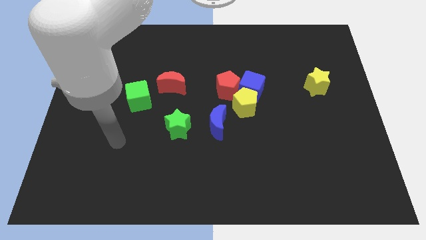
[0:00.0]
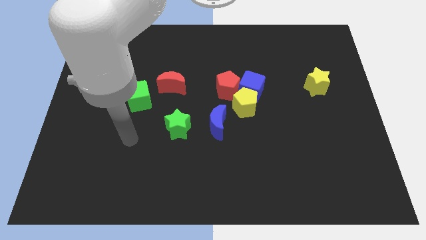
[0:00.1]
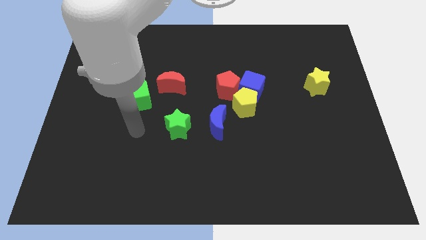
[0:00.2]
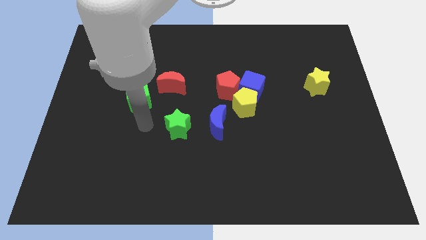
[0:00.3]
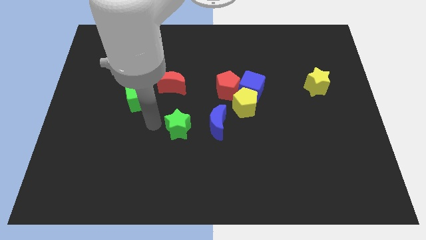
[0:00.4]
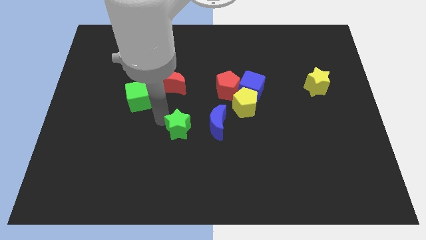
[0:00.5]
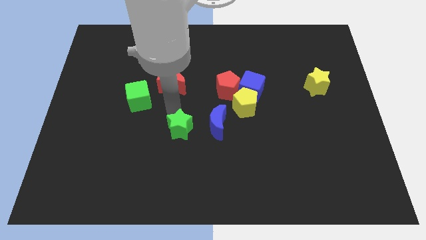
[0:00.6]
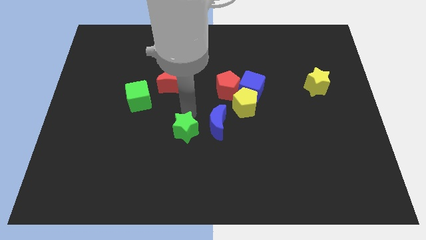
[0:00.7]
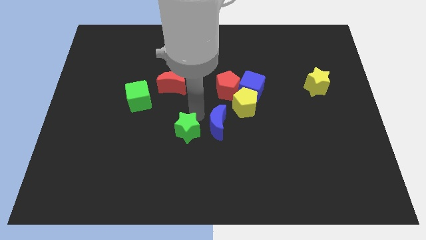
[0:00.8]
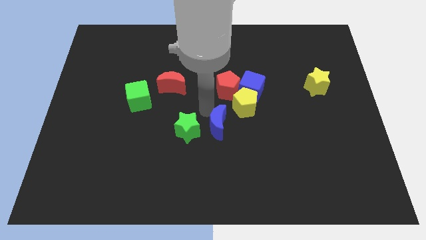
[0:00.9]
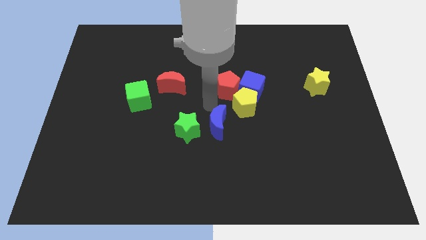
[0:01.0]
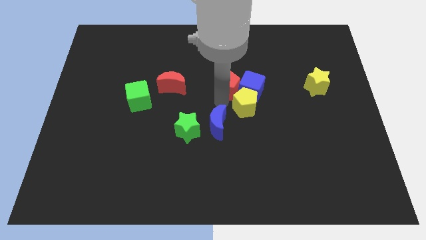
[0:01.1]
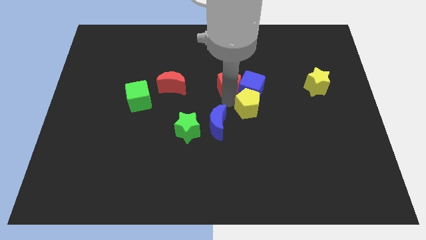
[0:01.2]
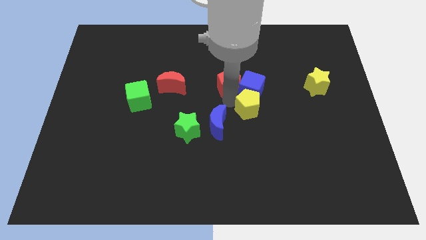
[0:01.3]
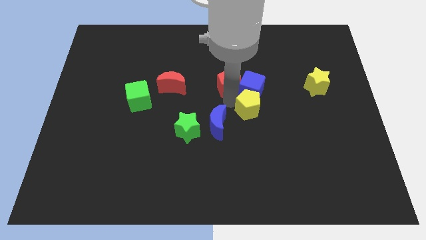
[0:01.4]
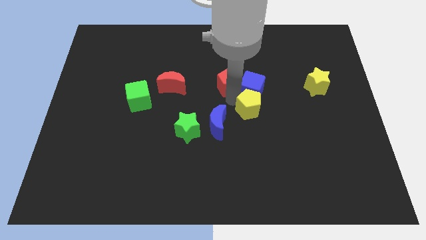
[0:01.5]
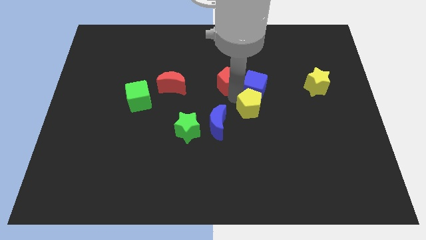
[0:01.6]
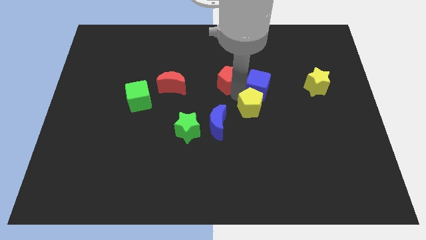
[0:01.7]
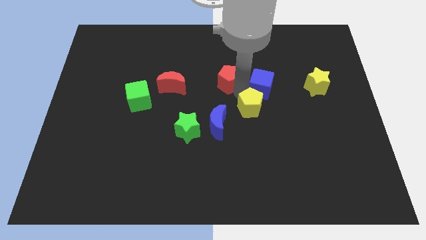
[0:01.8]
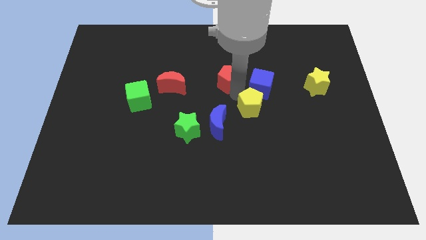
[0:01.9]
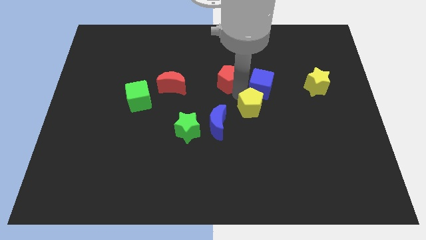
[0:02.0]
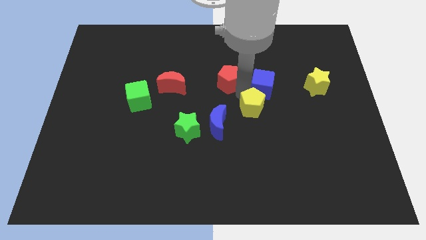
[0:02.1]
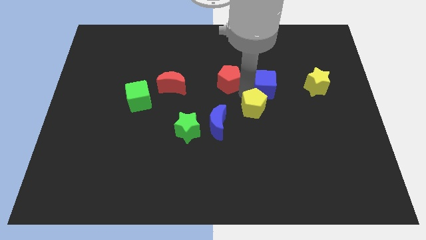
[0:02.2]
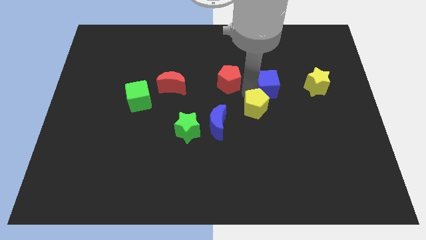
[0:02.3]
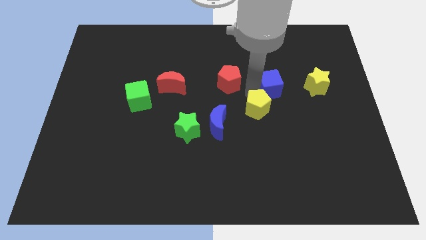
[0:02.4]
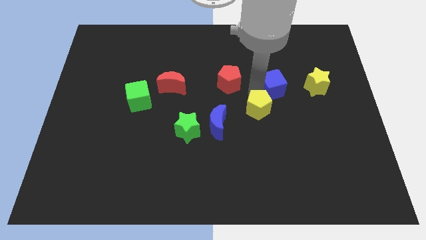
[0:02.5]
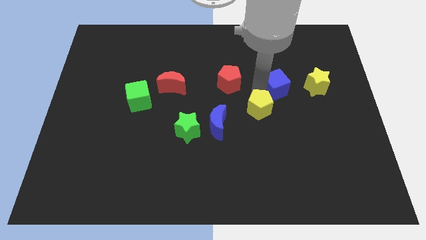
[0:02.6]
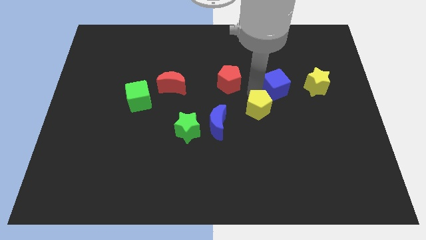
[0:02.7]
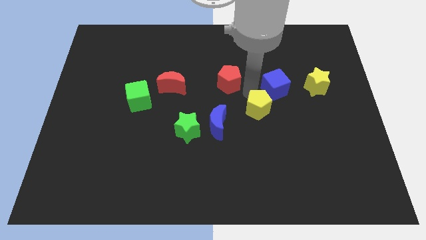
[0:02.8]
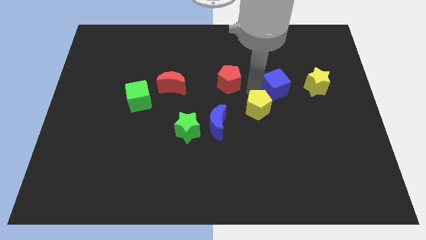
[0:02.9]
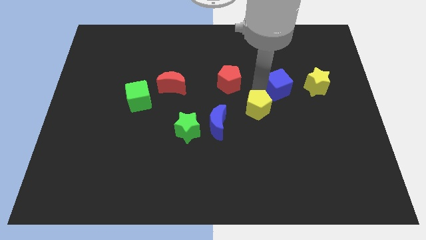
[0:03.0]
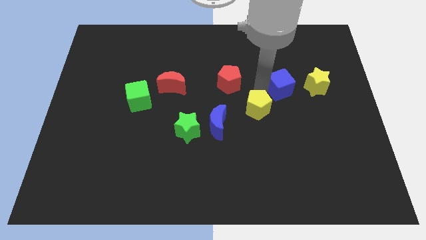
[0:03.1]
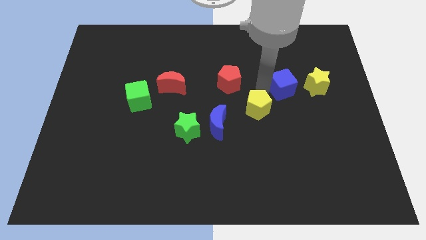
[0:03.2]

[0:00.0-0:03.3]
move the blue cube away from the yellow pentagon and red pentagon

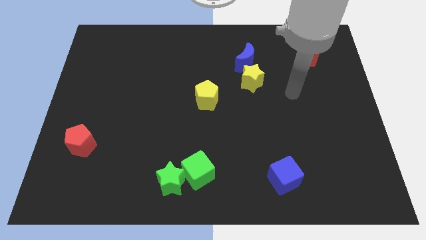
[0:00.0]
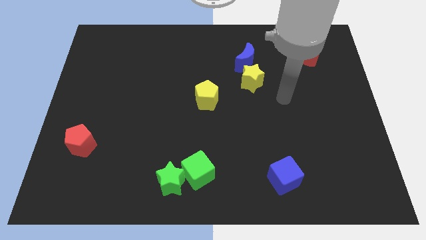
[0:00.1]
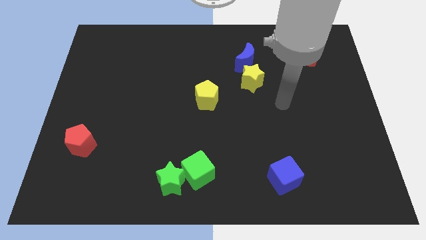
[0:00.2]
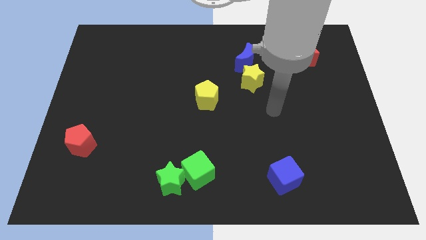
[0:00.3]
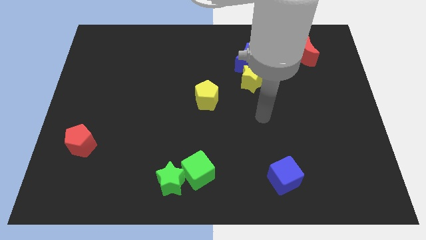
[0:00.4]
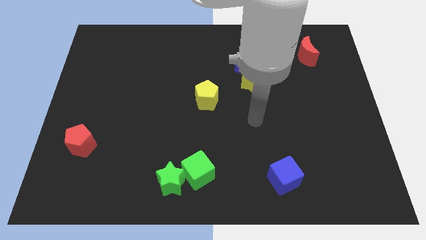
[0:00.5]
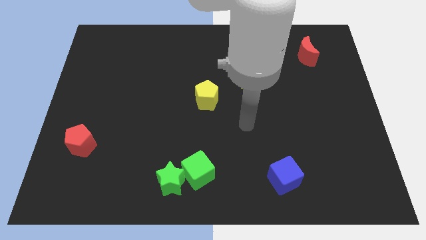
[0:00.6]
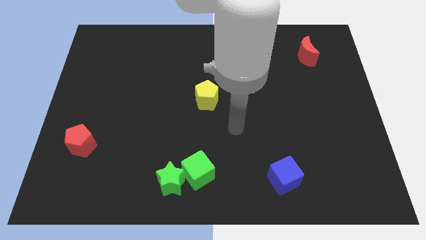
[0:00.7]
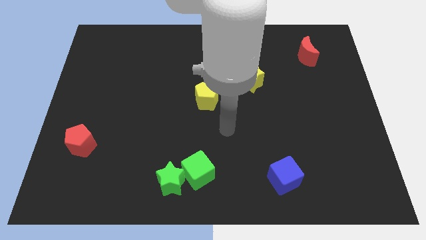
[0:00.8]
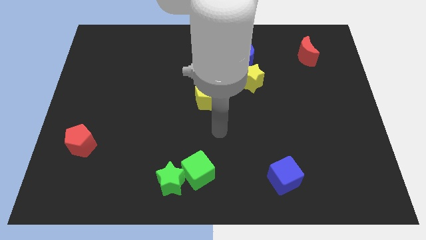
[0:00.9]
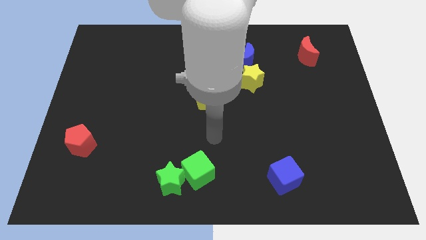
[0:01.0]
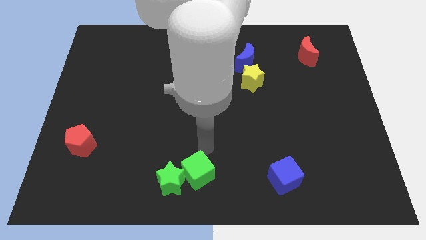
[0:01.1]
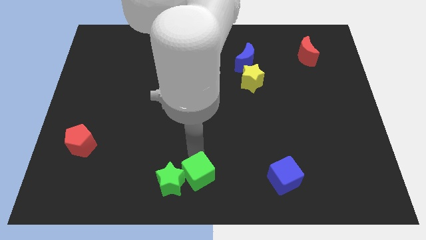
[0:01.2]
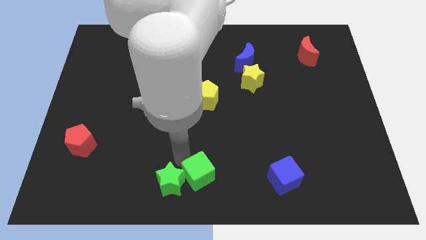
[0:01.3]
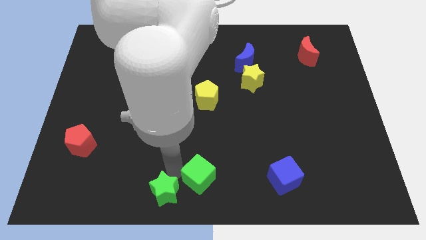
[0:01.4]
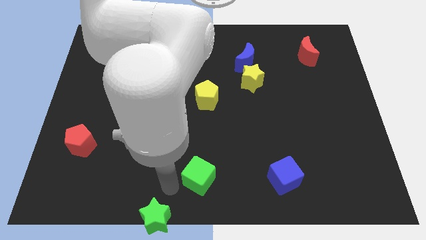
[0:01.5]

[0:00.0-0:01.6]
move the green cube away from the green star

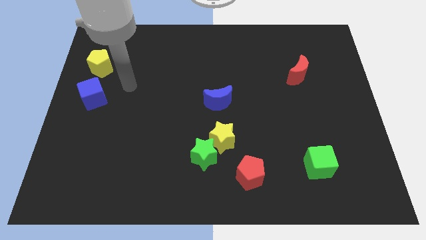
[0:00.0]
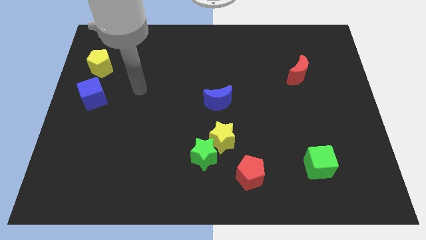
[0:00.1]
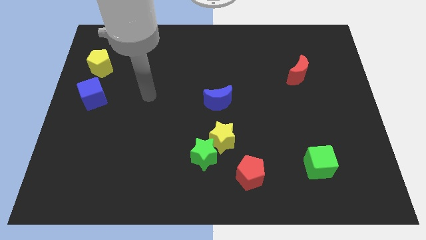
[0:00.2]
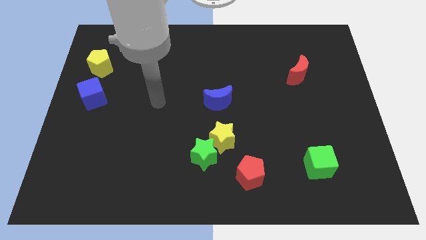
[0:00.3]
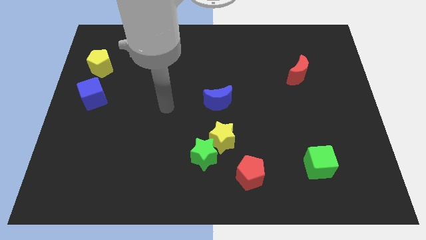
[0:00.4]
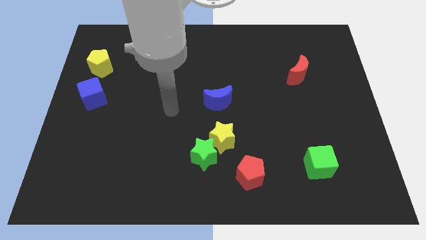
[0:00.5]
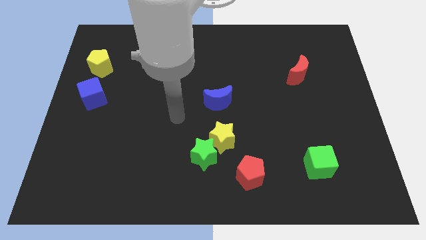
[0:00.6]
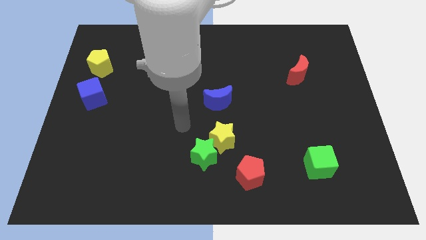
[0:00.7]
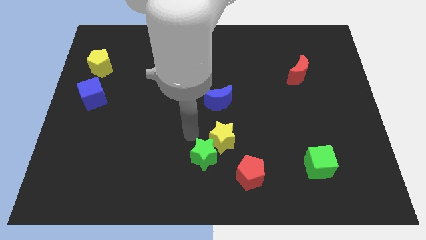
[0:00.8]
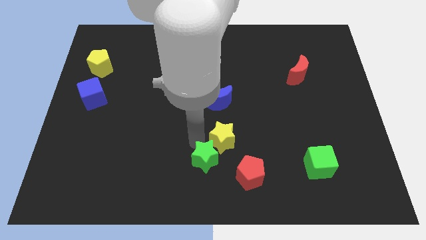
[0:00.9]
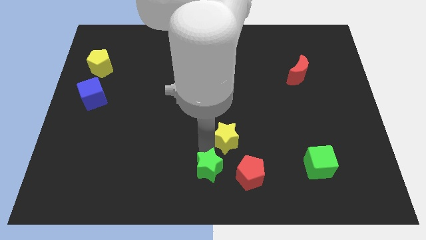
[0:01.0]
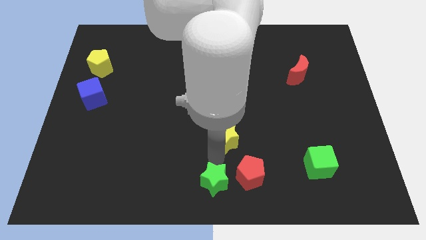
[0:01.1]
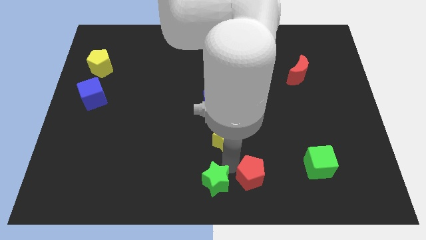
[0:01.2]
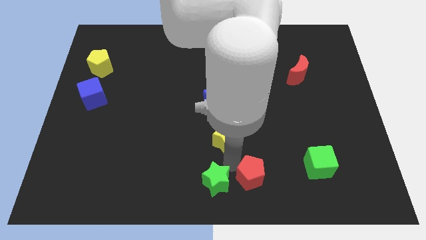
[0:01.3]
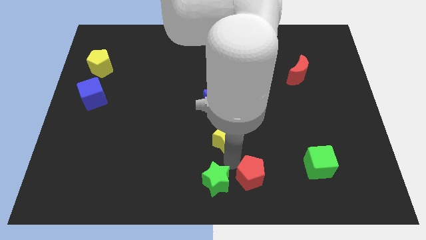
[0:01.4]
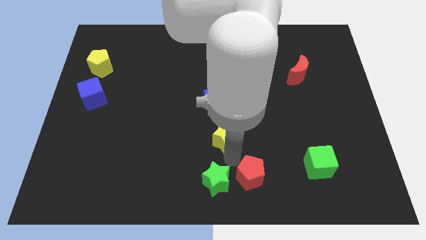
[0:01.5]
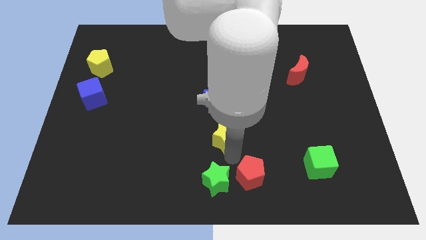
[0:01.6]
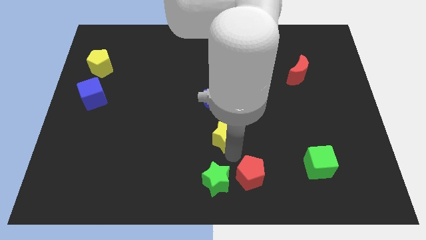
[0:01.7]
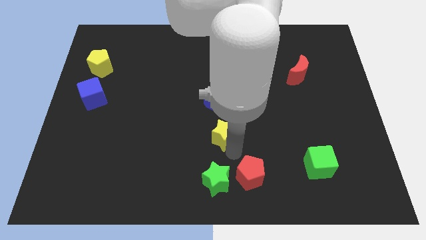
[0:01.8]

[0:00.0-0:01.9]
pull the yellow star apart from the green star and red pentagon

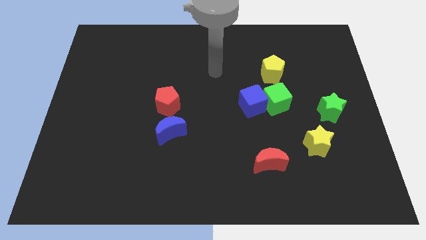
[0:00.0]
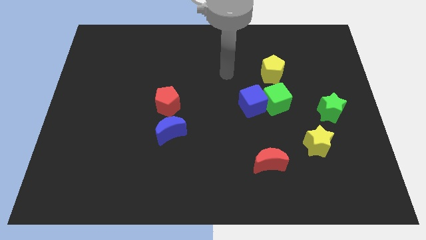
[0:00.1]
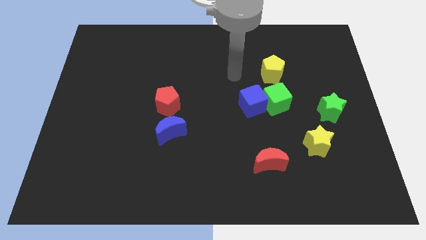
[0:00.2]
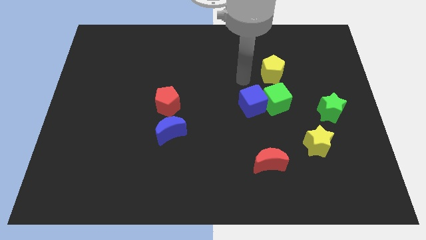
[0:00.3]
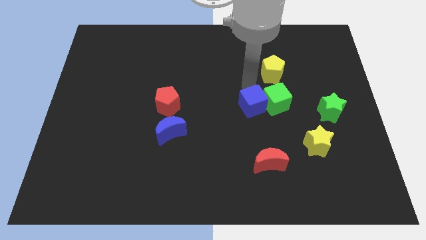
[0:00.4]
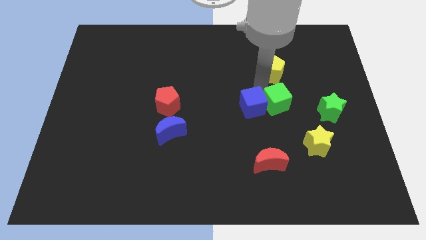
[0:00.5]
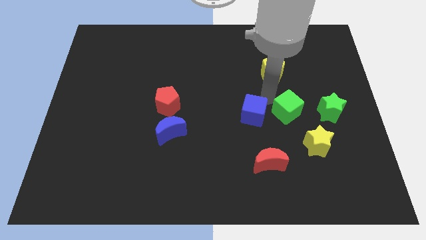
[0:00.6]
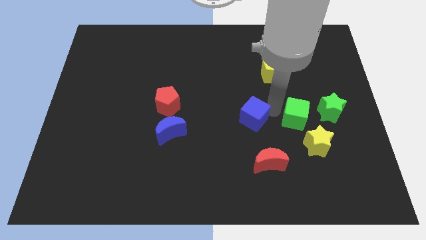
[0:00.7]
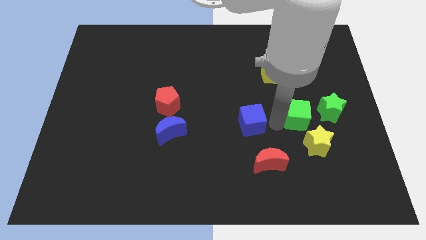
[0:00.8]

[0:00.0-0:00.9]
separate the blue cube from the green cube

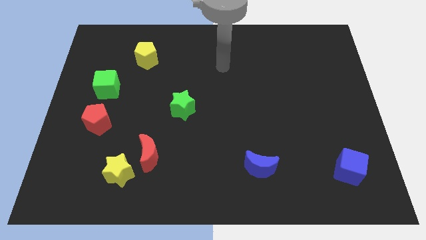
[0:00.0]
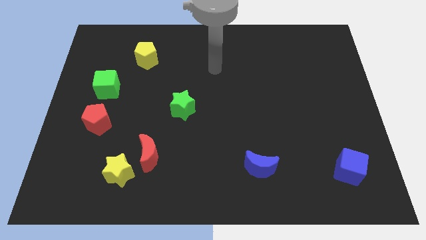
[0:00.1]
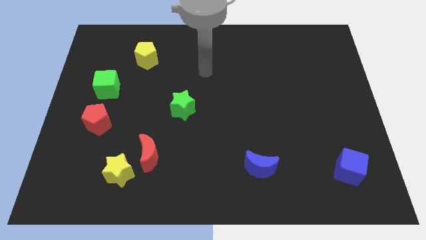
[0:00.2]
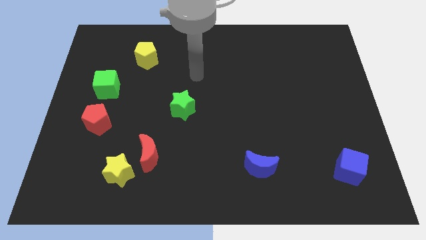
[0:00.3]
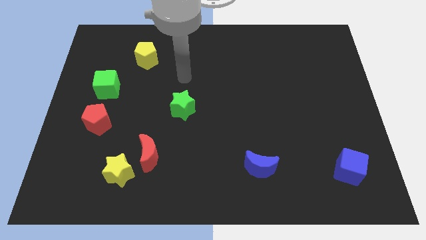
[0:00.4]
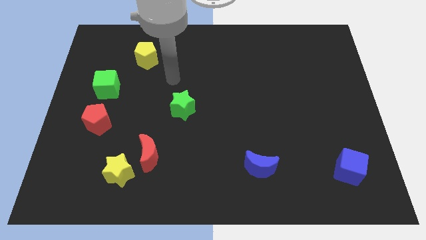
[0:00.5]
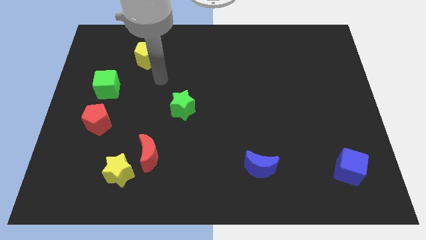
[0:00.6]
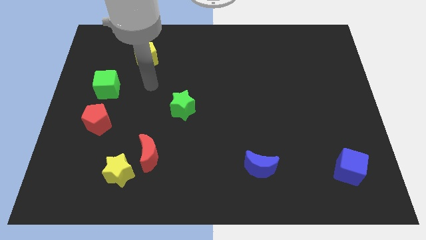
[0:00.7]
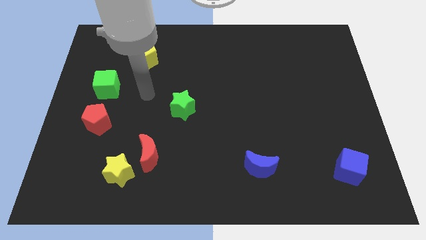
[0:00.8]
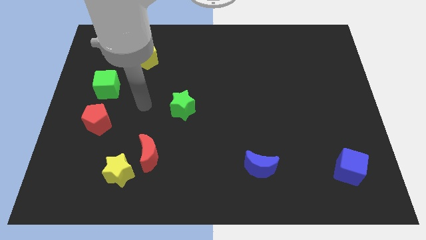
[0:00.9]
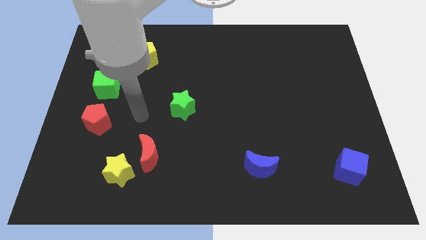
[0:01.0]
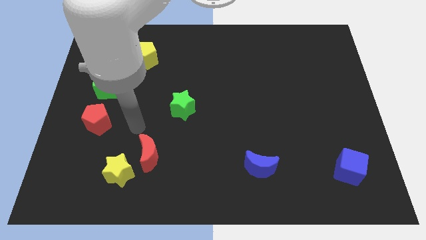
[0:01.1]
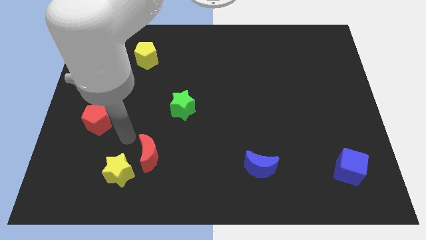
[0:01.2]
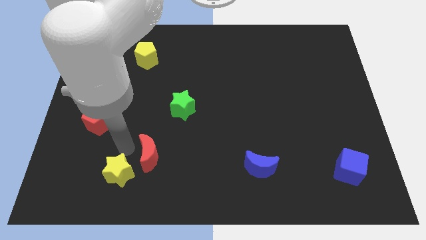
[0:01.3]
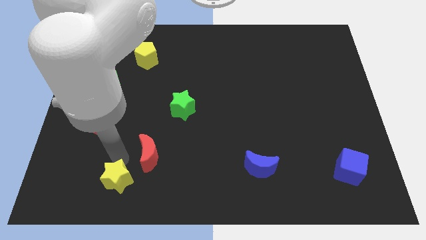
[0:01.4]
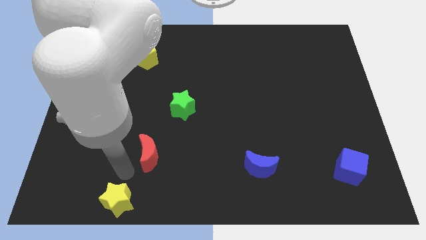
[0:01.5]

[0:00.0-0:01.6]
separate the red moon from the yellow star
